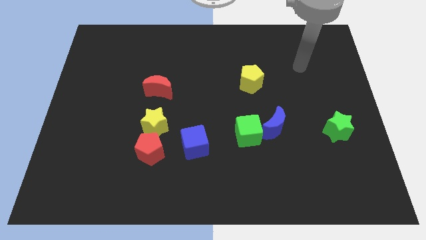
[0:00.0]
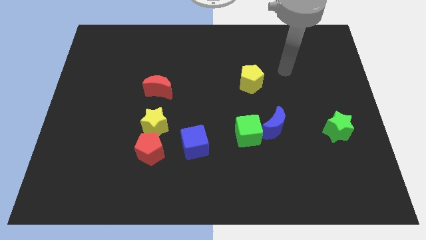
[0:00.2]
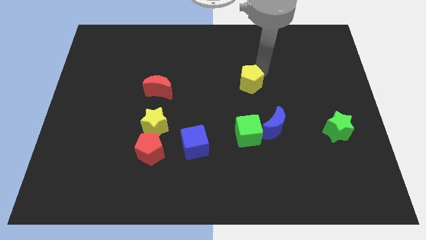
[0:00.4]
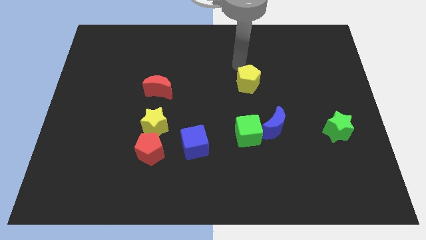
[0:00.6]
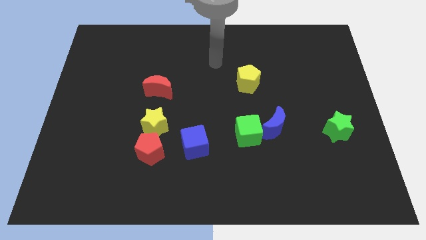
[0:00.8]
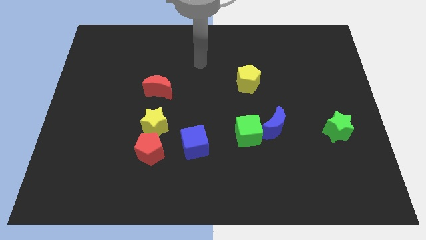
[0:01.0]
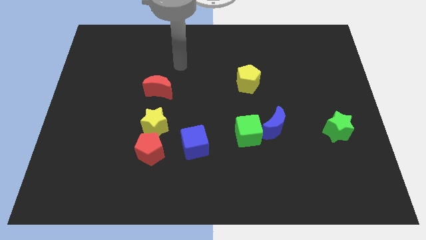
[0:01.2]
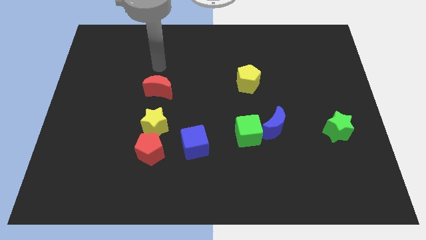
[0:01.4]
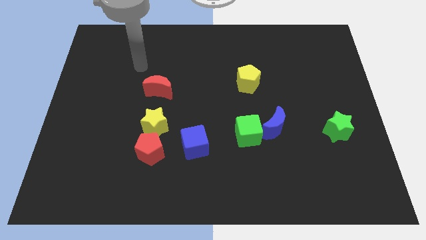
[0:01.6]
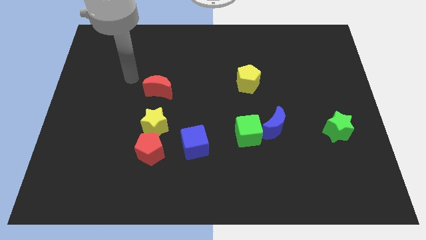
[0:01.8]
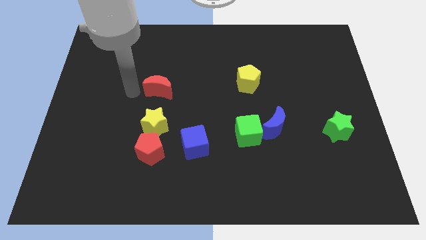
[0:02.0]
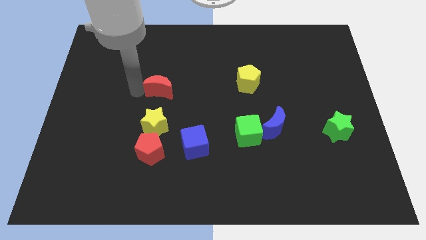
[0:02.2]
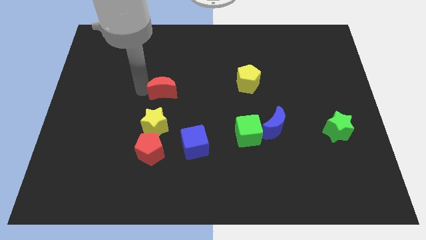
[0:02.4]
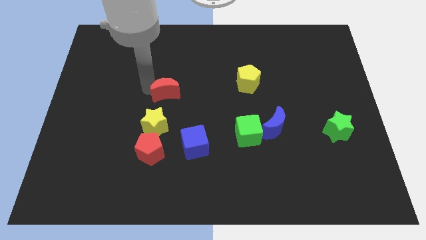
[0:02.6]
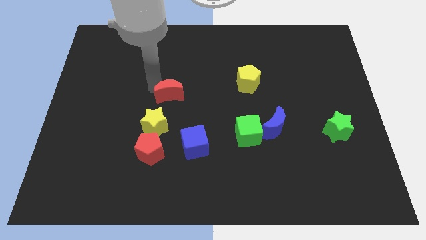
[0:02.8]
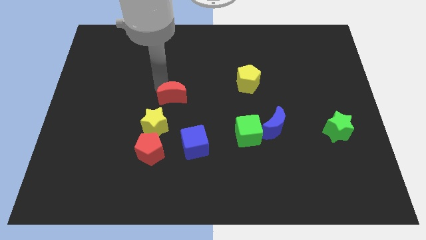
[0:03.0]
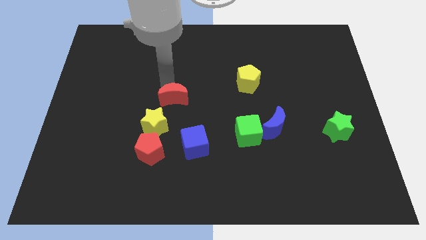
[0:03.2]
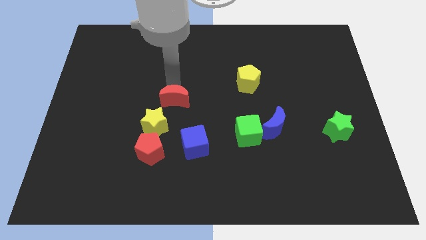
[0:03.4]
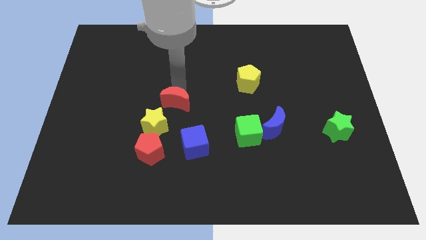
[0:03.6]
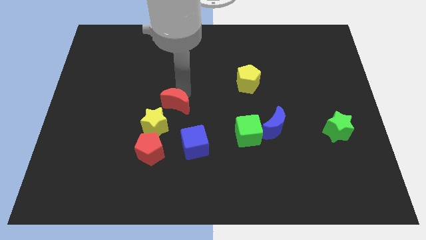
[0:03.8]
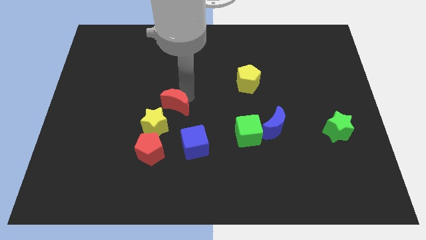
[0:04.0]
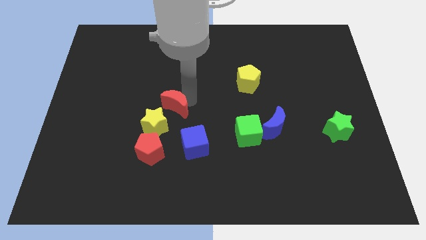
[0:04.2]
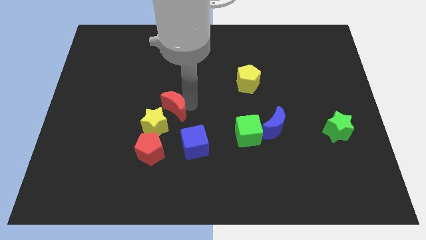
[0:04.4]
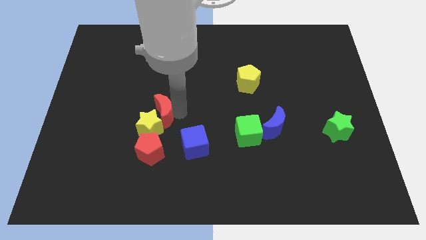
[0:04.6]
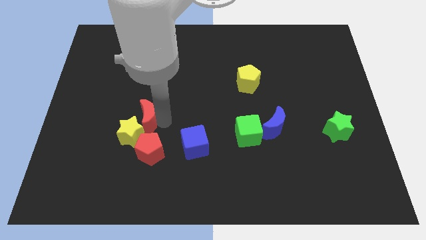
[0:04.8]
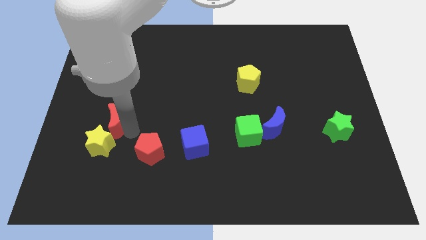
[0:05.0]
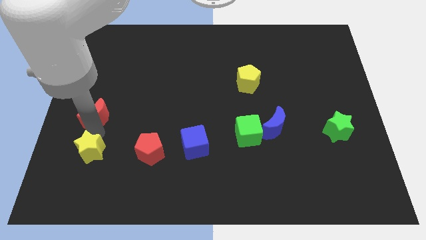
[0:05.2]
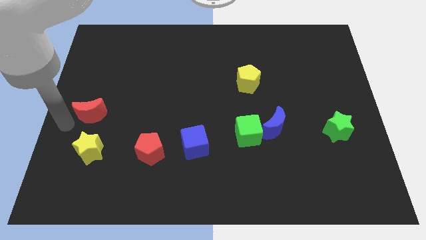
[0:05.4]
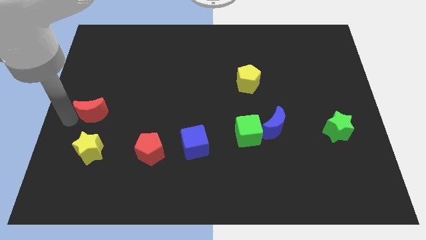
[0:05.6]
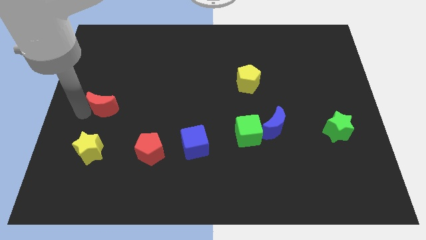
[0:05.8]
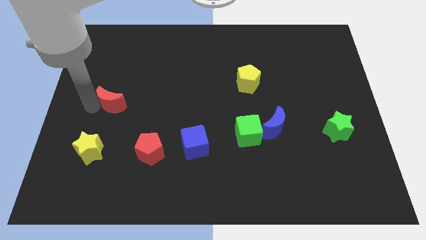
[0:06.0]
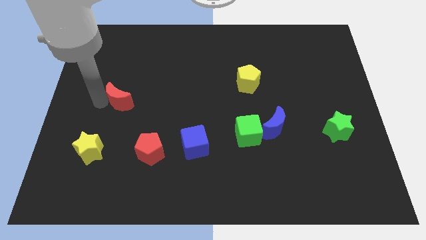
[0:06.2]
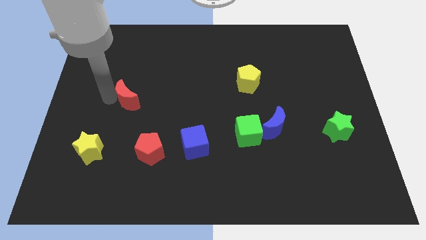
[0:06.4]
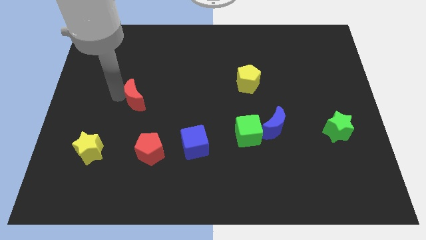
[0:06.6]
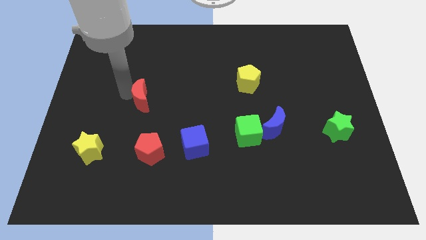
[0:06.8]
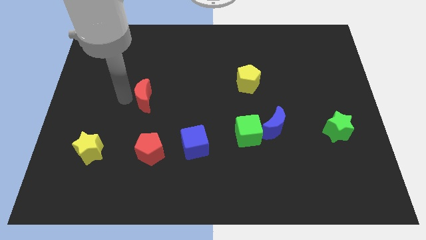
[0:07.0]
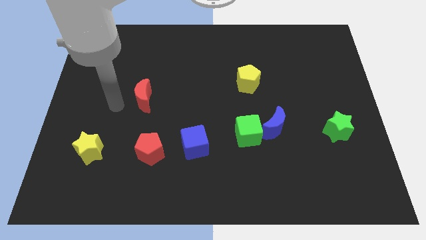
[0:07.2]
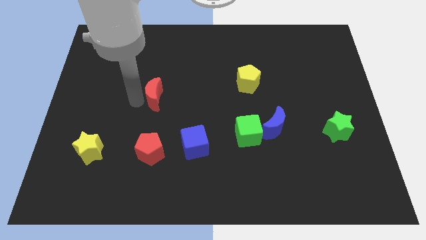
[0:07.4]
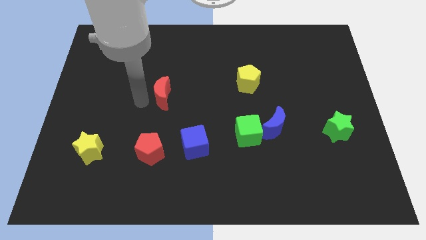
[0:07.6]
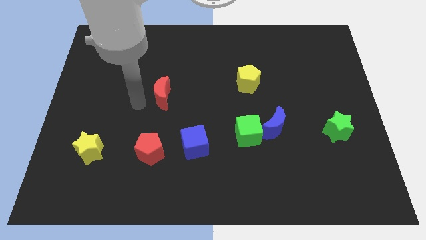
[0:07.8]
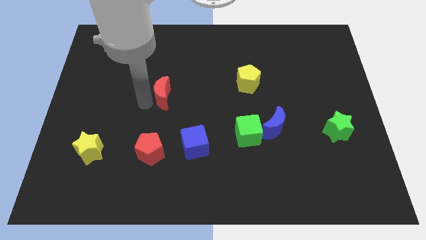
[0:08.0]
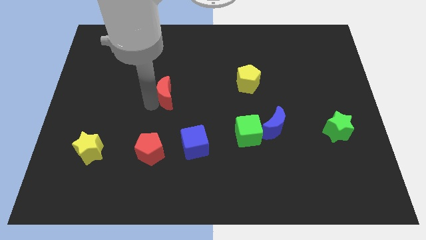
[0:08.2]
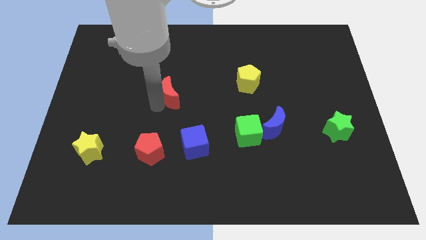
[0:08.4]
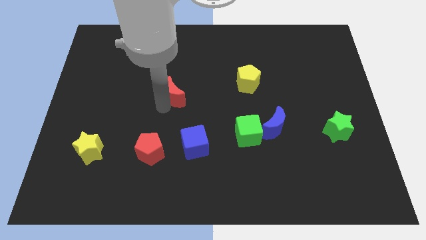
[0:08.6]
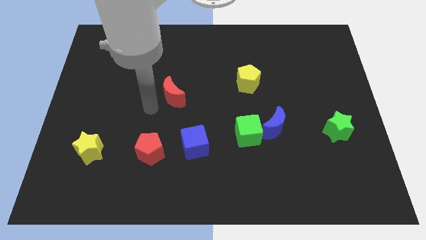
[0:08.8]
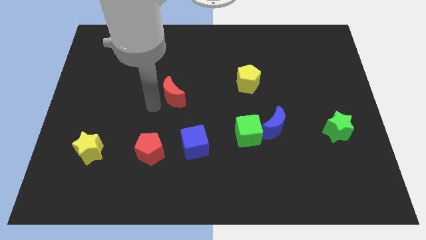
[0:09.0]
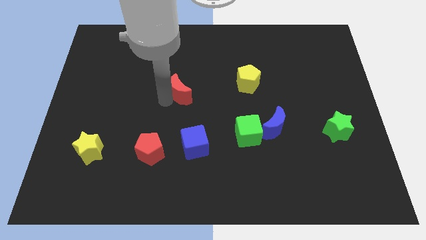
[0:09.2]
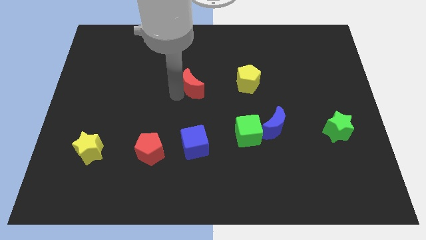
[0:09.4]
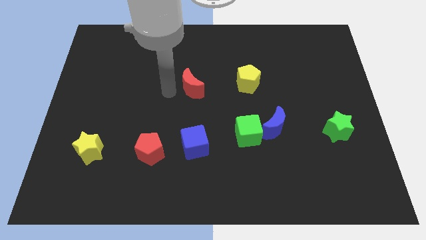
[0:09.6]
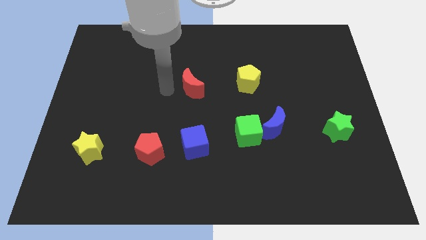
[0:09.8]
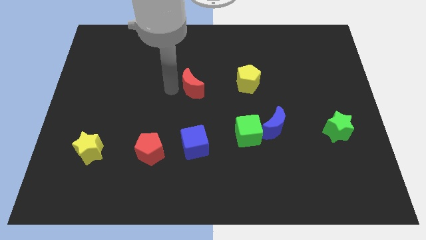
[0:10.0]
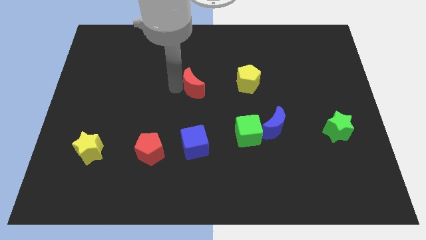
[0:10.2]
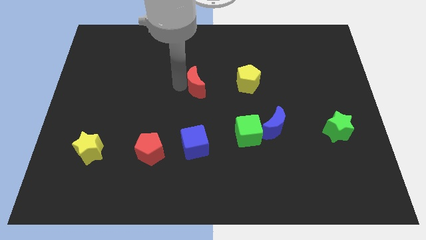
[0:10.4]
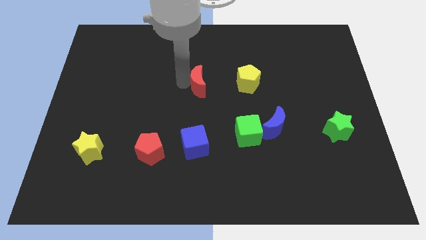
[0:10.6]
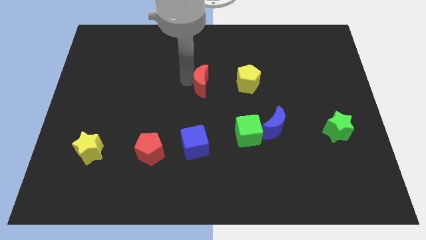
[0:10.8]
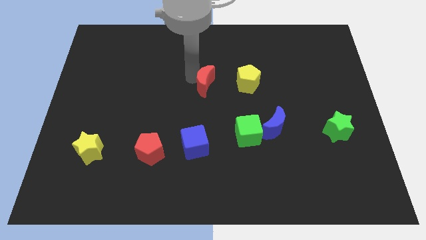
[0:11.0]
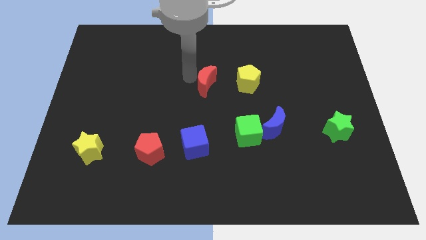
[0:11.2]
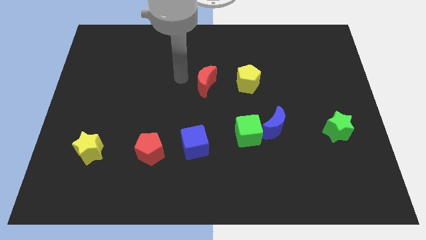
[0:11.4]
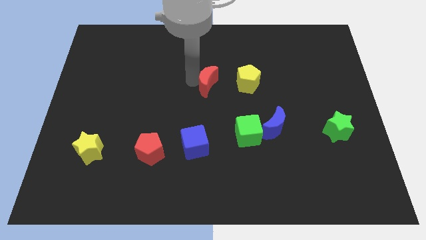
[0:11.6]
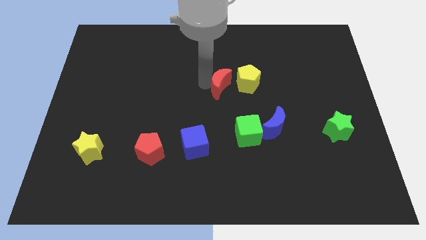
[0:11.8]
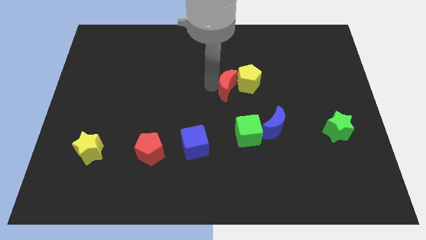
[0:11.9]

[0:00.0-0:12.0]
move the red moon towards the yellow pentagon

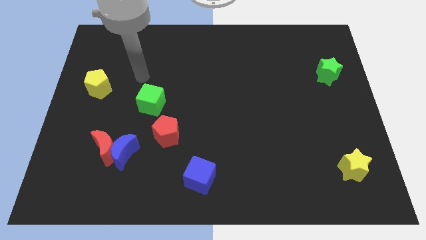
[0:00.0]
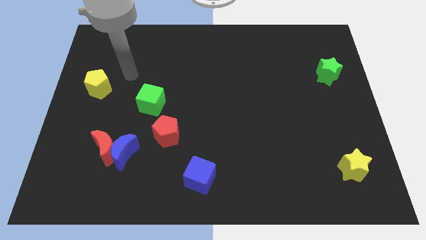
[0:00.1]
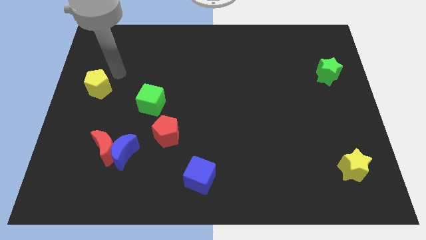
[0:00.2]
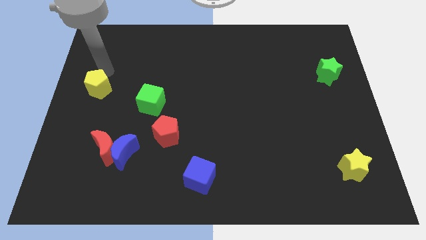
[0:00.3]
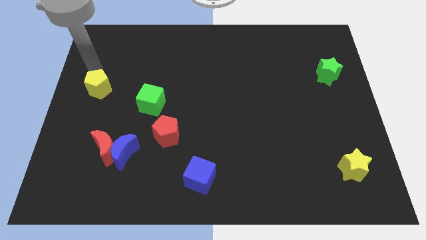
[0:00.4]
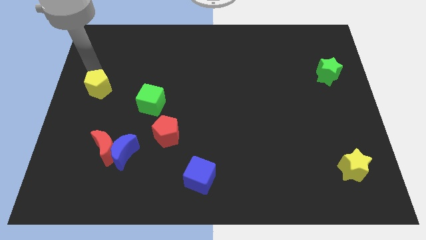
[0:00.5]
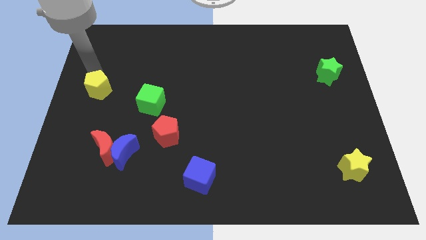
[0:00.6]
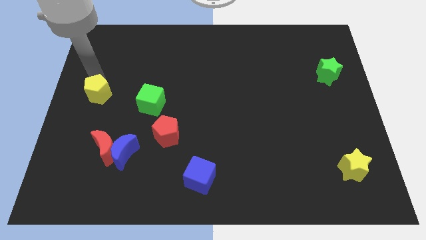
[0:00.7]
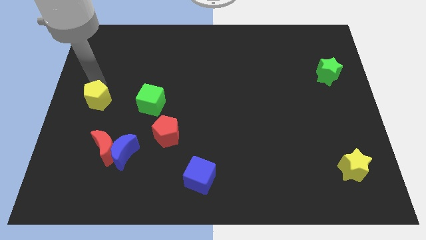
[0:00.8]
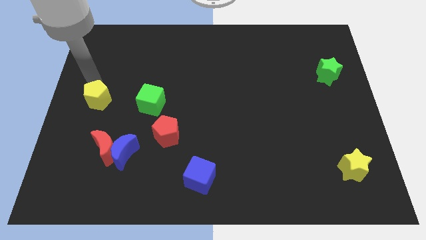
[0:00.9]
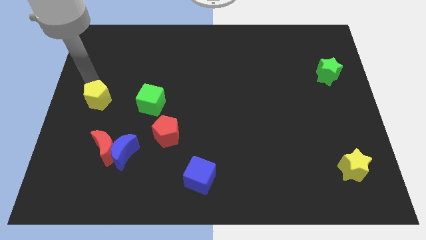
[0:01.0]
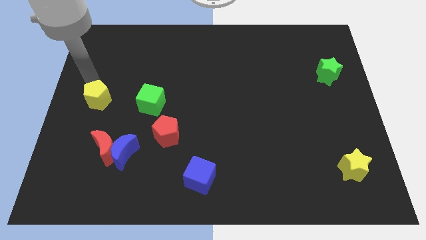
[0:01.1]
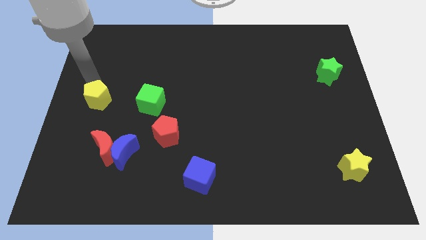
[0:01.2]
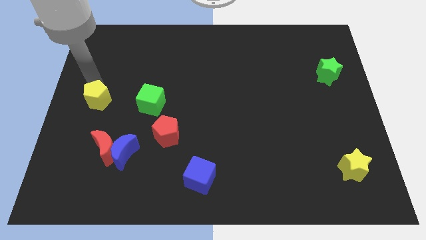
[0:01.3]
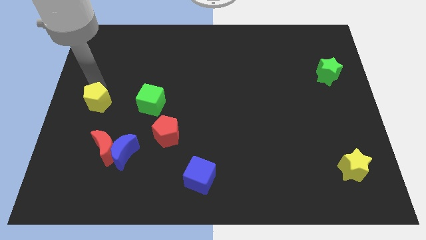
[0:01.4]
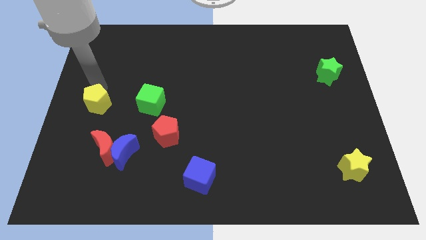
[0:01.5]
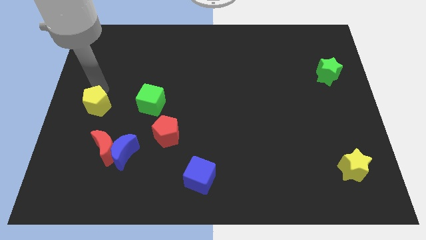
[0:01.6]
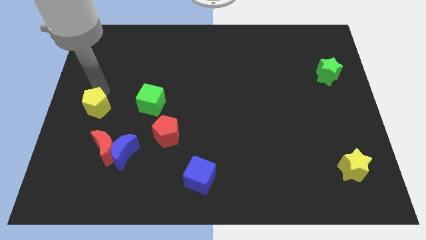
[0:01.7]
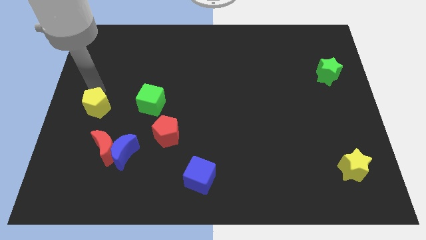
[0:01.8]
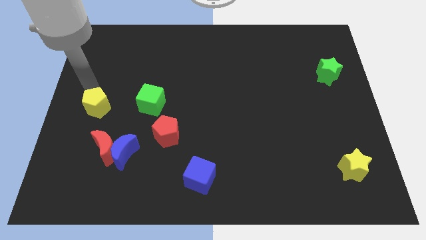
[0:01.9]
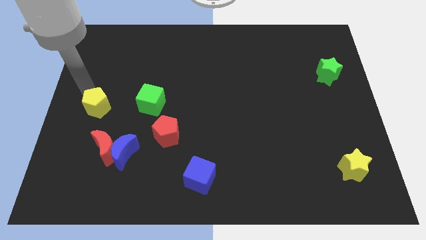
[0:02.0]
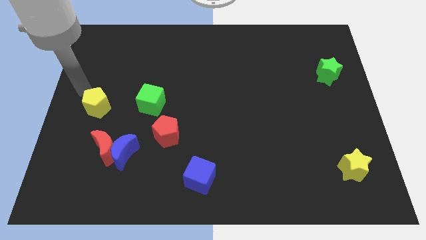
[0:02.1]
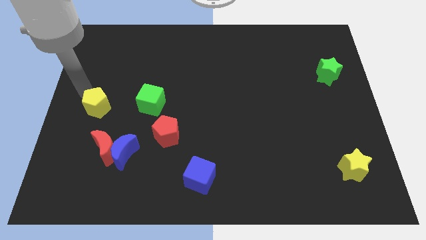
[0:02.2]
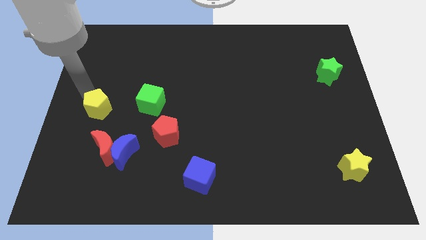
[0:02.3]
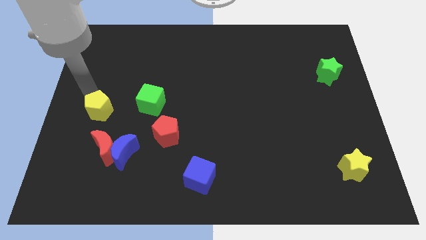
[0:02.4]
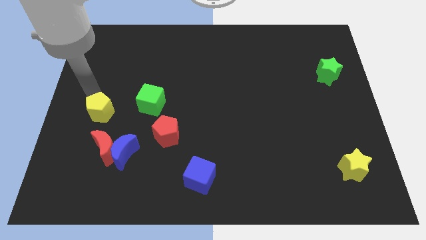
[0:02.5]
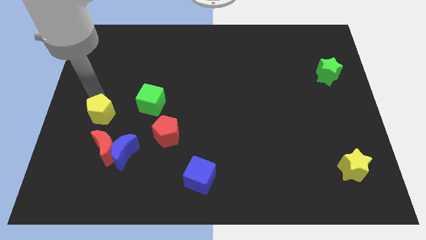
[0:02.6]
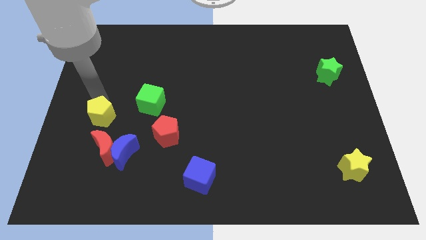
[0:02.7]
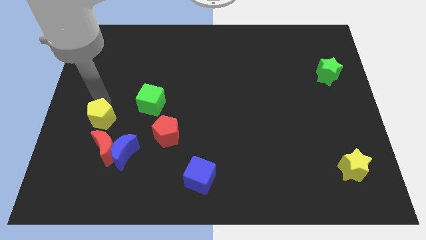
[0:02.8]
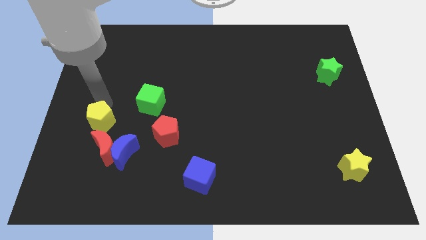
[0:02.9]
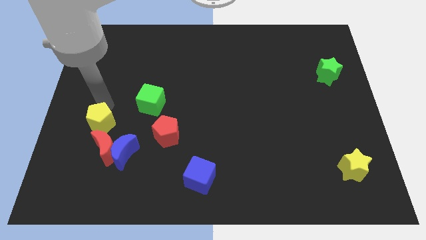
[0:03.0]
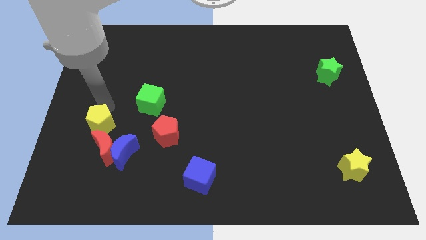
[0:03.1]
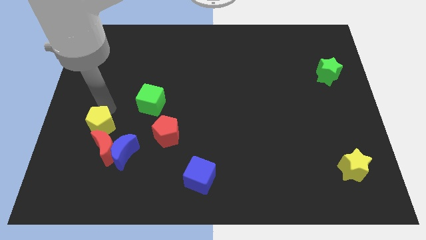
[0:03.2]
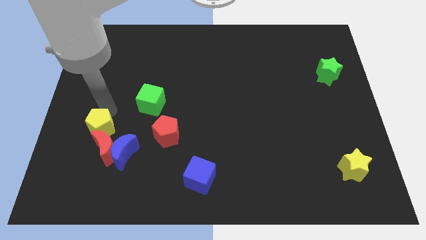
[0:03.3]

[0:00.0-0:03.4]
push the yellow pentagon next to the red moon
